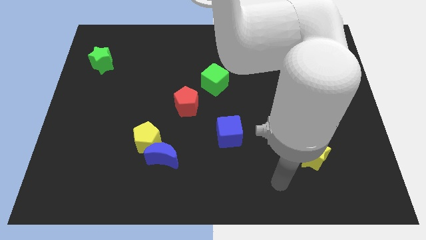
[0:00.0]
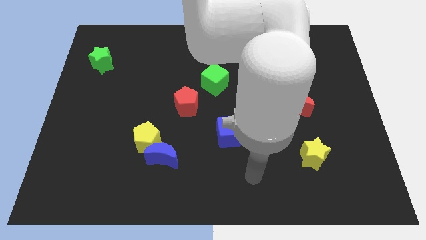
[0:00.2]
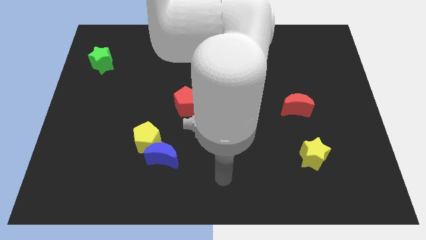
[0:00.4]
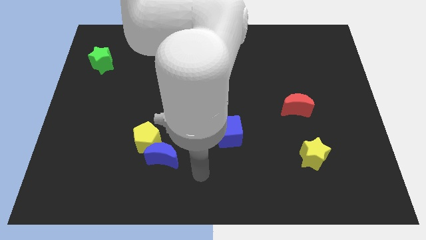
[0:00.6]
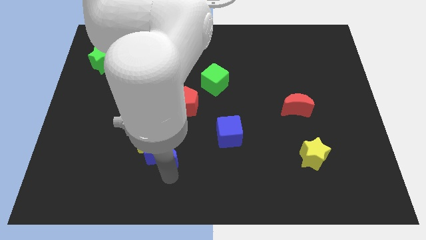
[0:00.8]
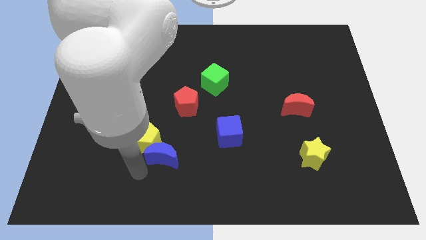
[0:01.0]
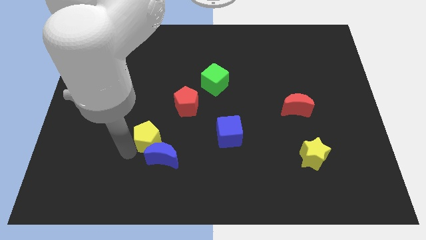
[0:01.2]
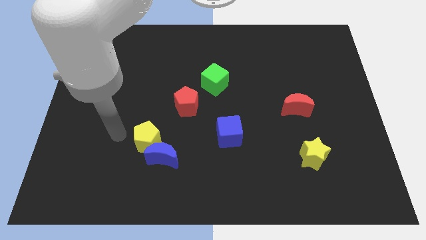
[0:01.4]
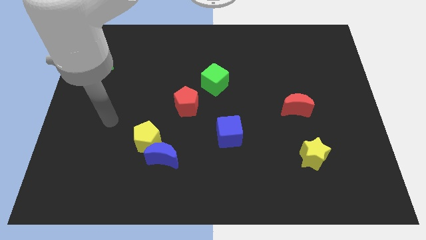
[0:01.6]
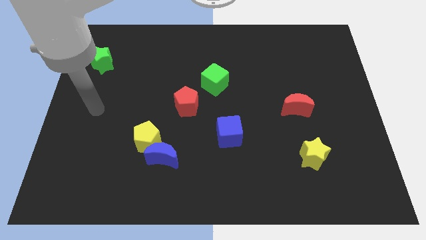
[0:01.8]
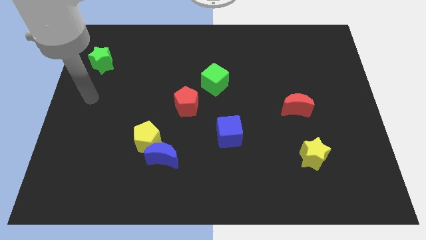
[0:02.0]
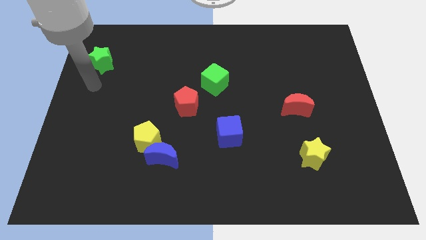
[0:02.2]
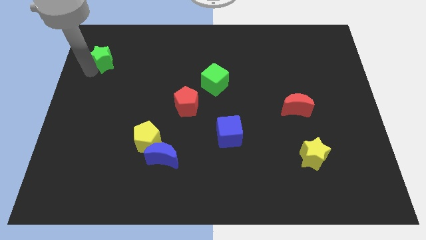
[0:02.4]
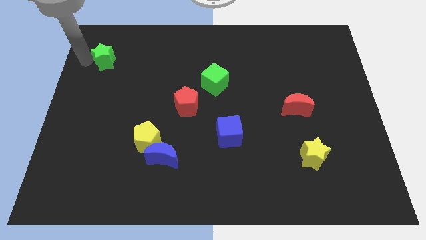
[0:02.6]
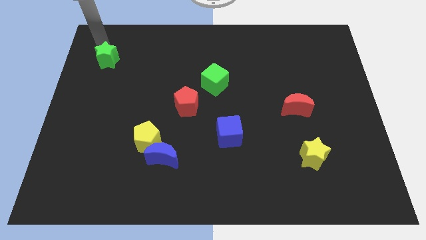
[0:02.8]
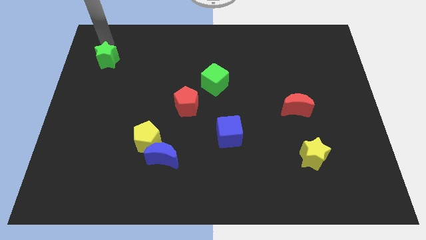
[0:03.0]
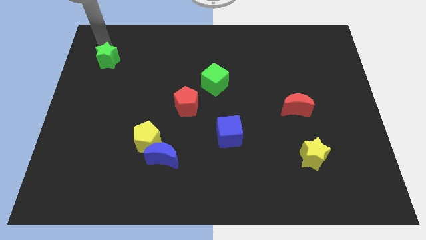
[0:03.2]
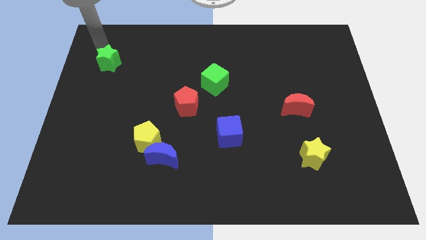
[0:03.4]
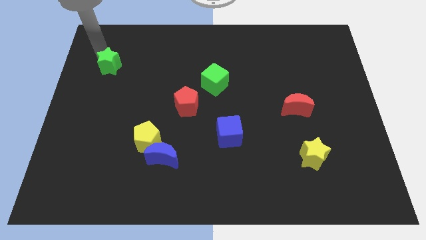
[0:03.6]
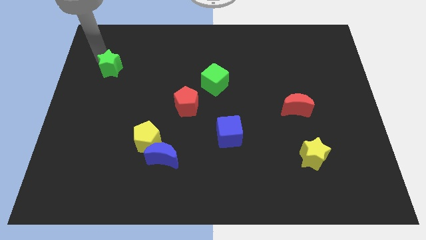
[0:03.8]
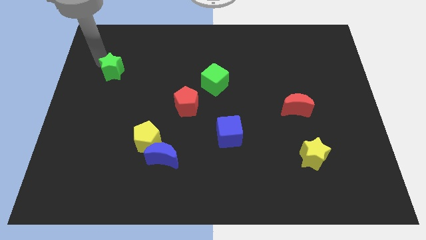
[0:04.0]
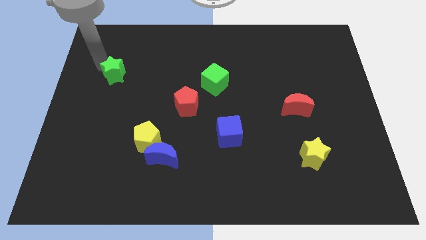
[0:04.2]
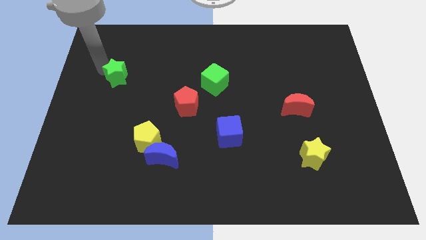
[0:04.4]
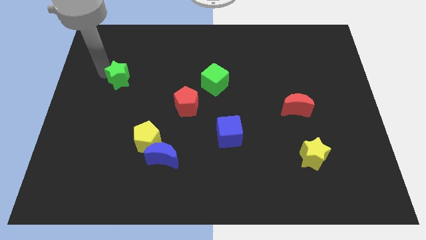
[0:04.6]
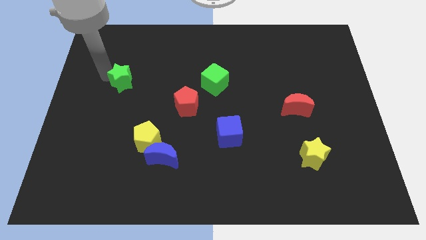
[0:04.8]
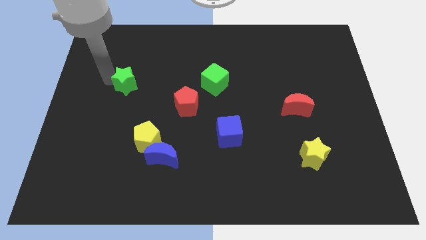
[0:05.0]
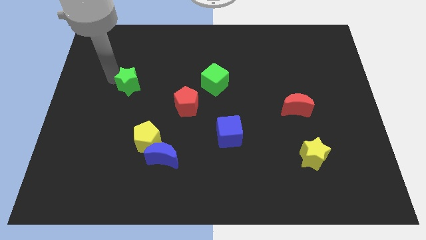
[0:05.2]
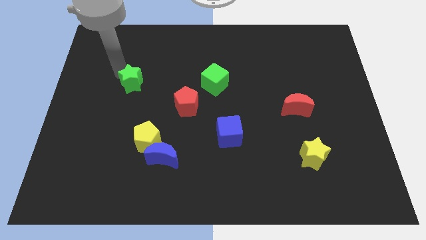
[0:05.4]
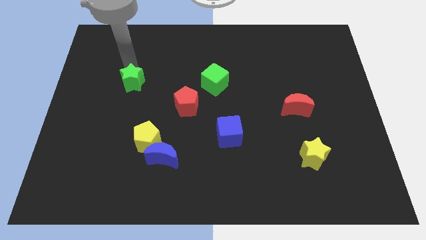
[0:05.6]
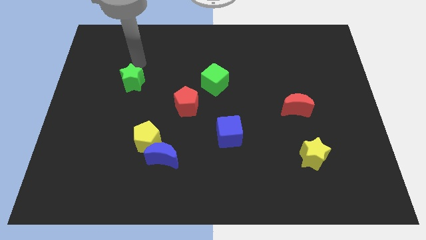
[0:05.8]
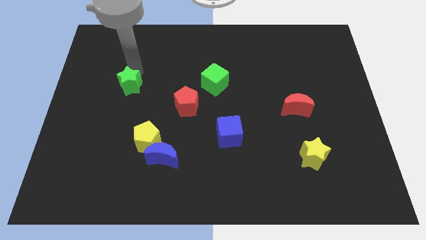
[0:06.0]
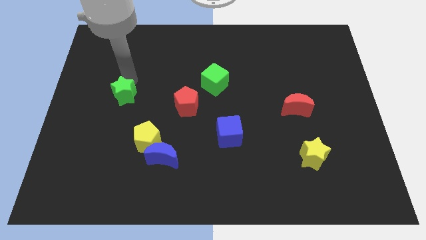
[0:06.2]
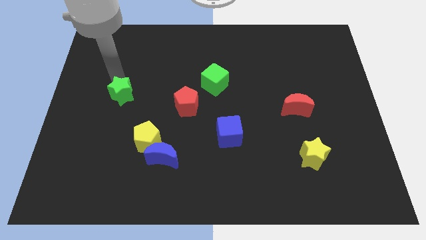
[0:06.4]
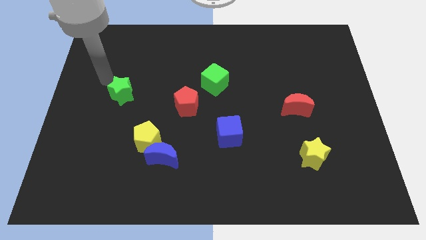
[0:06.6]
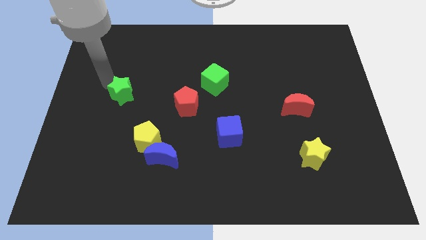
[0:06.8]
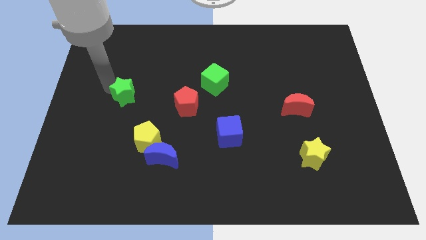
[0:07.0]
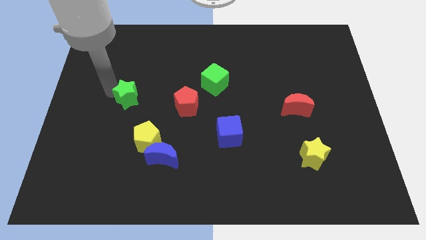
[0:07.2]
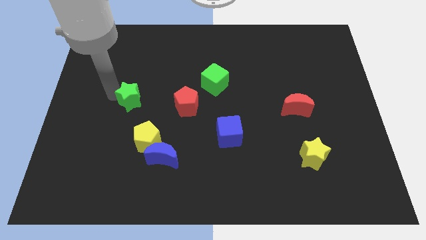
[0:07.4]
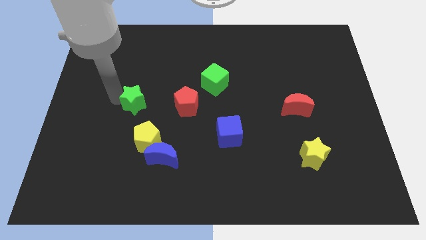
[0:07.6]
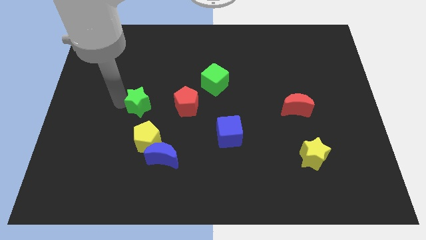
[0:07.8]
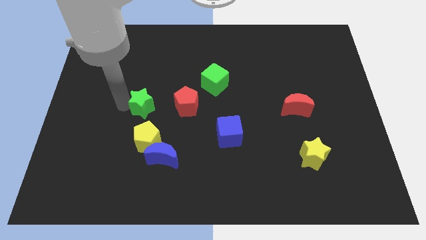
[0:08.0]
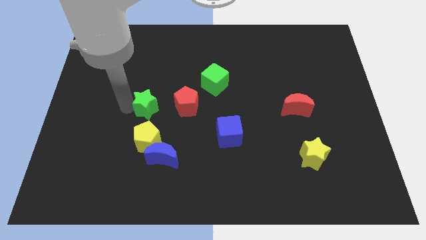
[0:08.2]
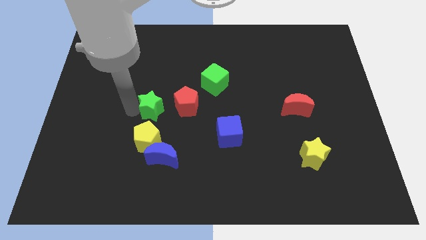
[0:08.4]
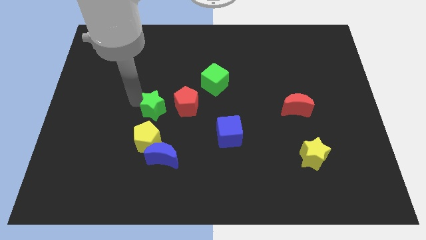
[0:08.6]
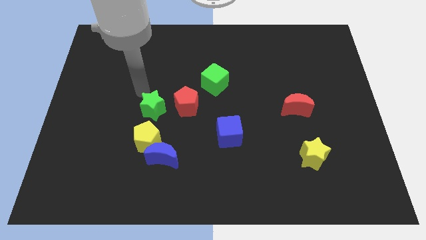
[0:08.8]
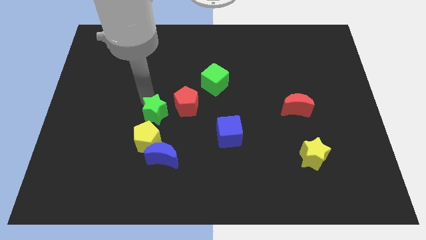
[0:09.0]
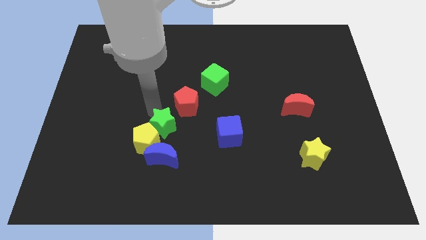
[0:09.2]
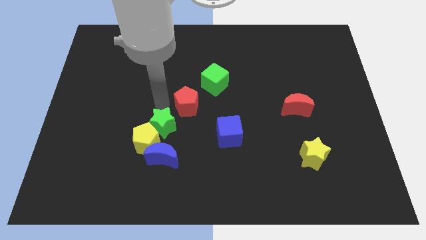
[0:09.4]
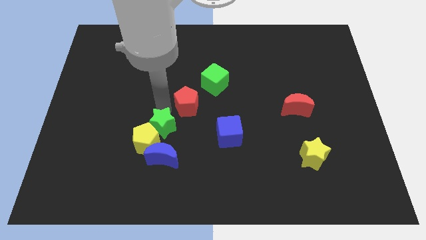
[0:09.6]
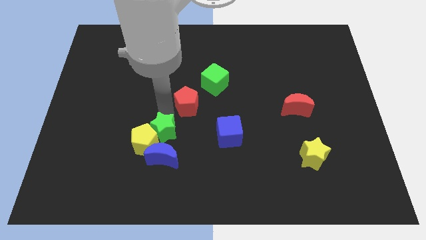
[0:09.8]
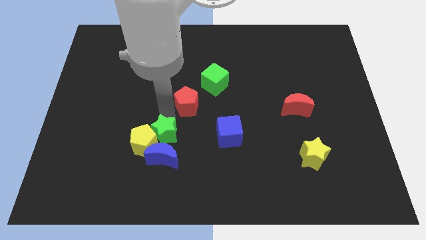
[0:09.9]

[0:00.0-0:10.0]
push the green star towards the blue moon

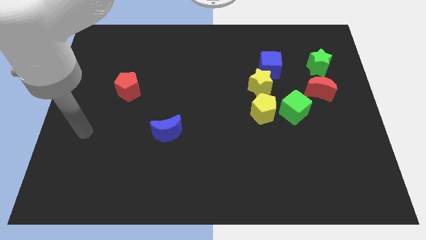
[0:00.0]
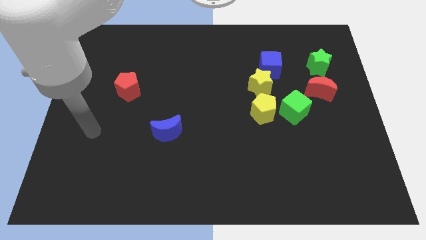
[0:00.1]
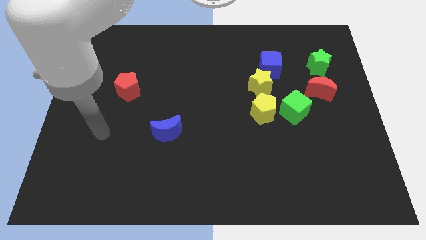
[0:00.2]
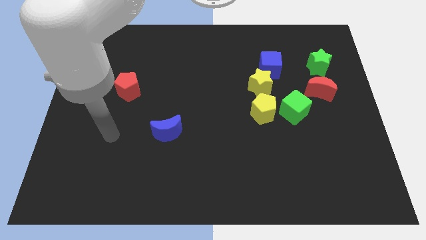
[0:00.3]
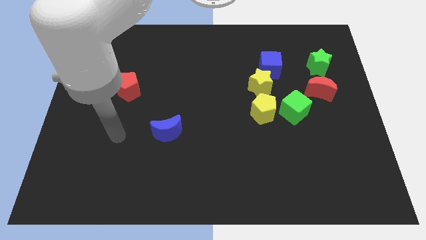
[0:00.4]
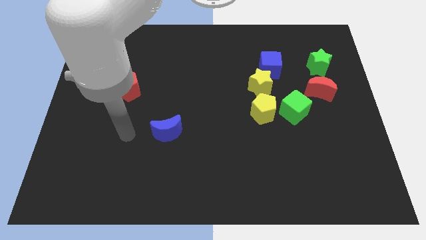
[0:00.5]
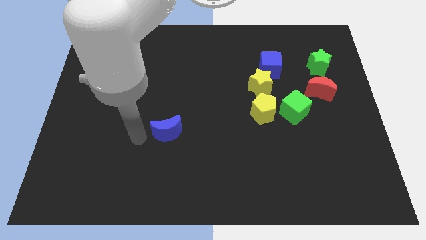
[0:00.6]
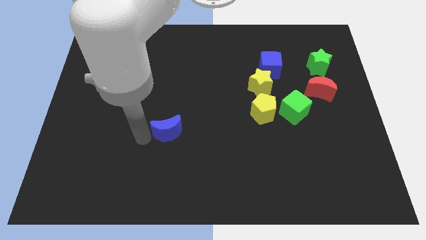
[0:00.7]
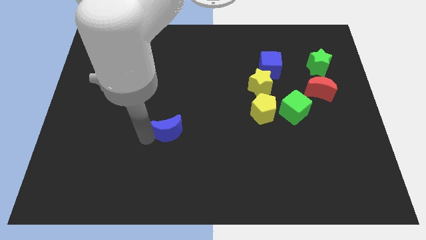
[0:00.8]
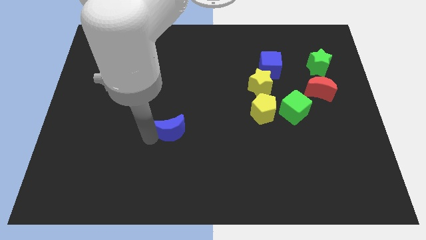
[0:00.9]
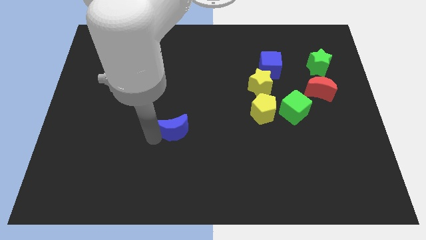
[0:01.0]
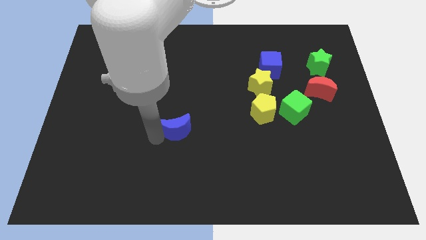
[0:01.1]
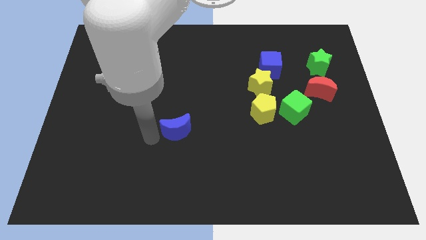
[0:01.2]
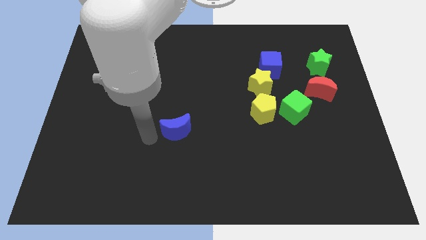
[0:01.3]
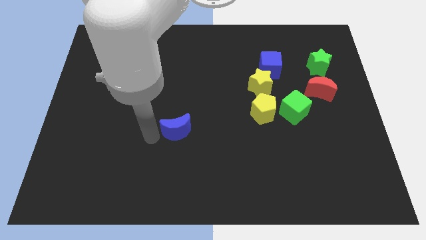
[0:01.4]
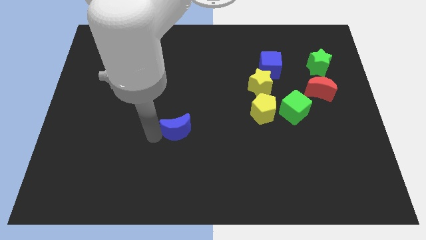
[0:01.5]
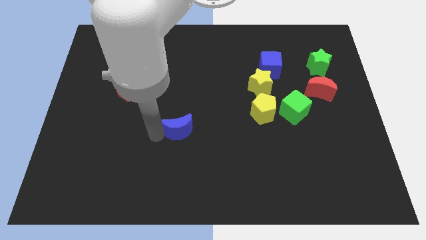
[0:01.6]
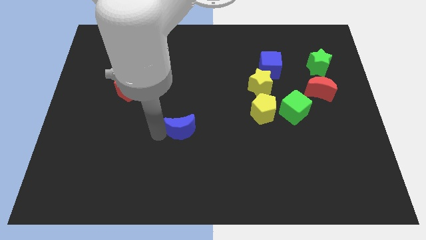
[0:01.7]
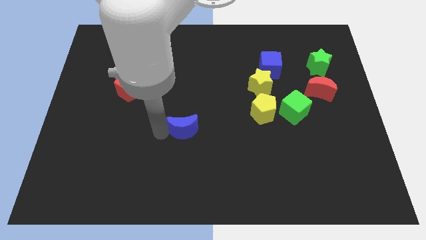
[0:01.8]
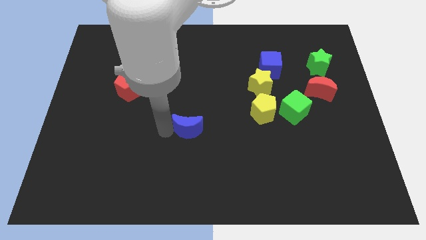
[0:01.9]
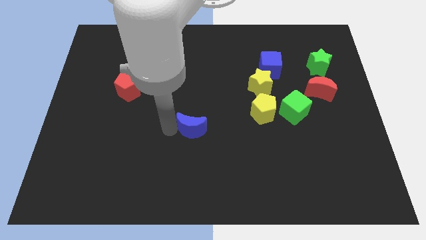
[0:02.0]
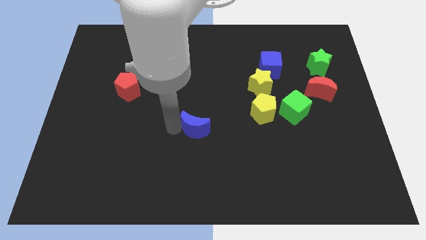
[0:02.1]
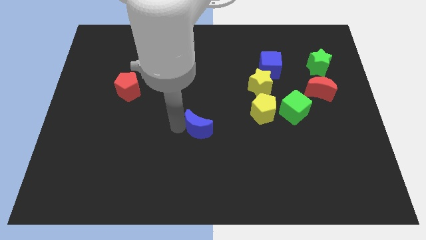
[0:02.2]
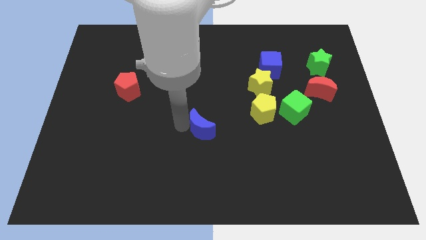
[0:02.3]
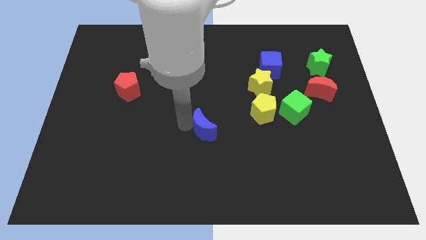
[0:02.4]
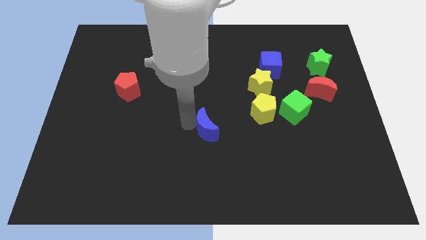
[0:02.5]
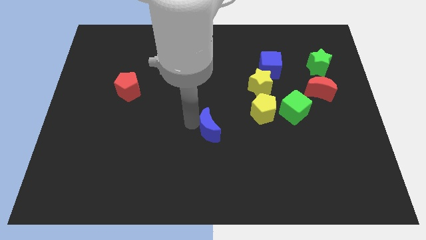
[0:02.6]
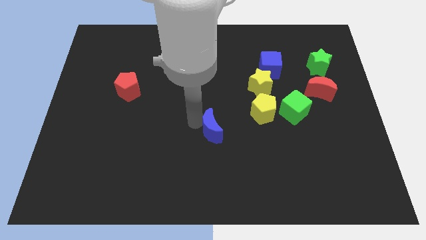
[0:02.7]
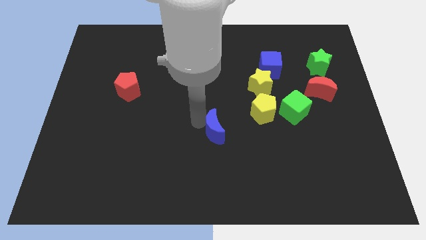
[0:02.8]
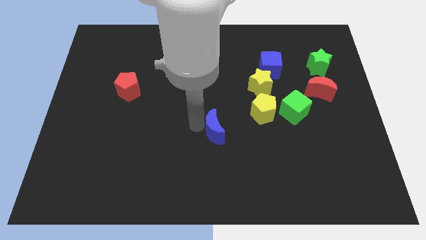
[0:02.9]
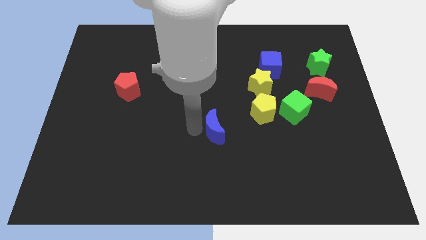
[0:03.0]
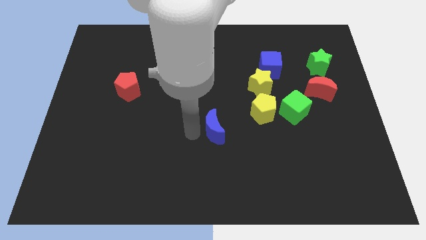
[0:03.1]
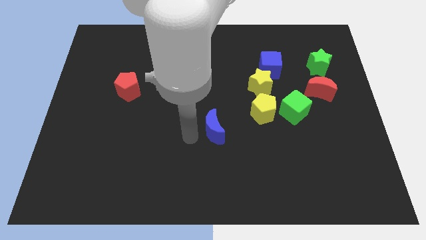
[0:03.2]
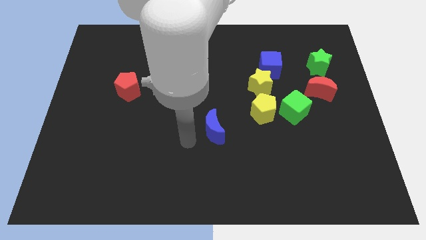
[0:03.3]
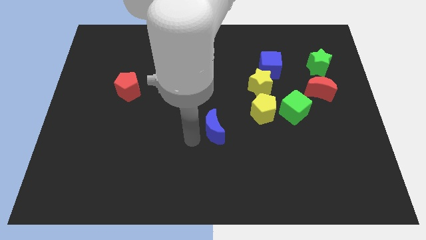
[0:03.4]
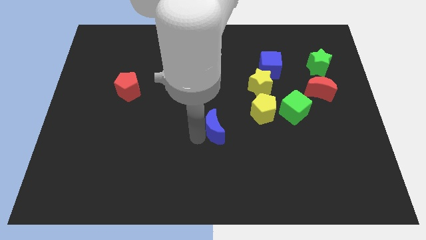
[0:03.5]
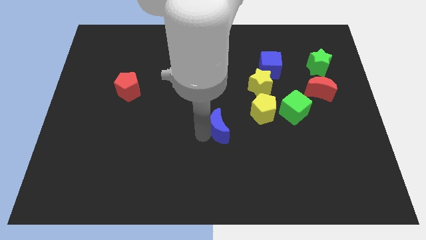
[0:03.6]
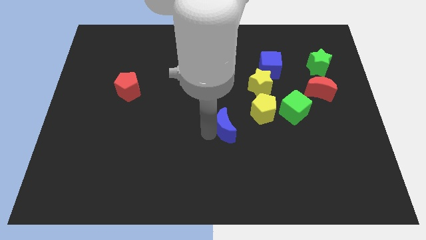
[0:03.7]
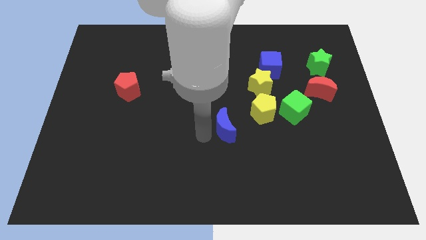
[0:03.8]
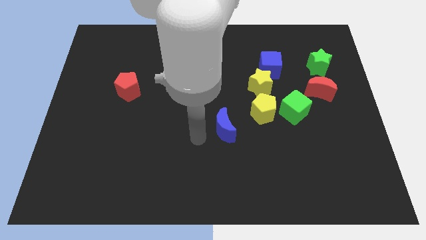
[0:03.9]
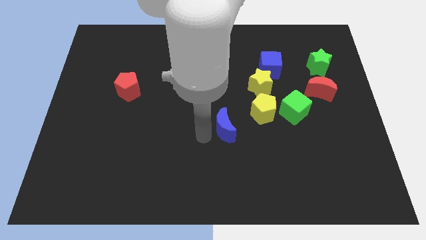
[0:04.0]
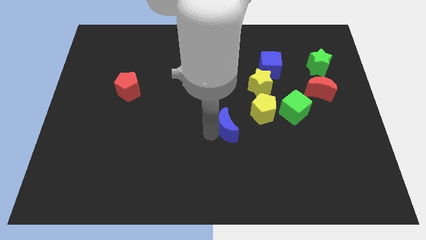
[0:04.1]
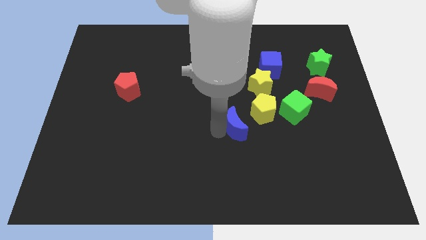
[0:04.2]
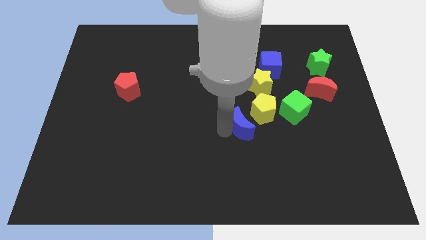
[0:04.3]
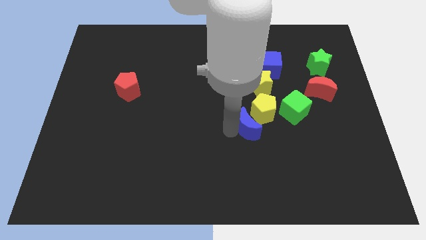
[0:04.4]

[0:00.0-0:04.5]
move the blue moon close to the yellow pentagon
